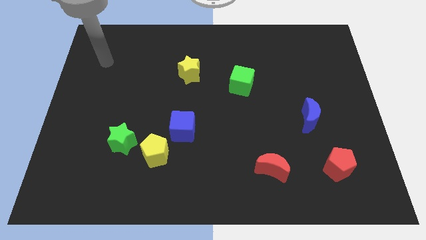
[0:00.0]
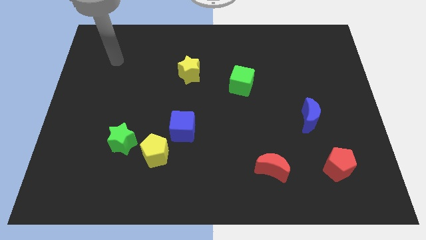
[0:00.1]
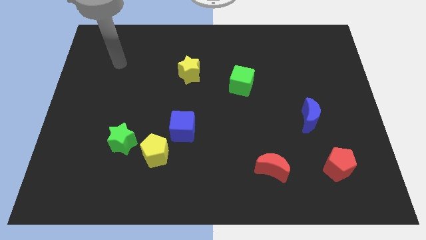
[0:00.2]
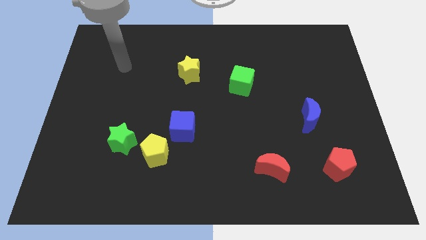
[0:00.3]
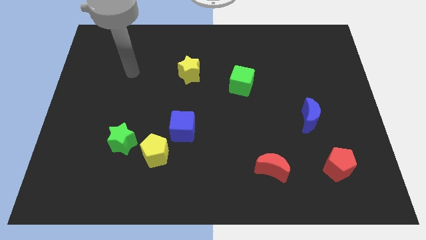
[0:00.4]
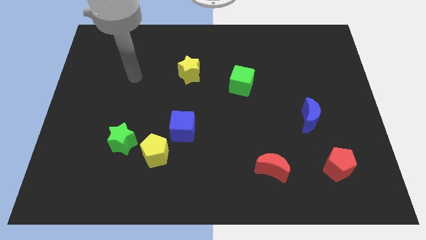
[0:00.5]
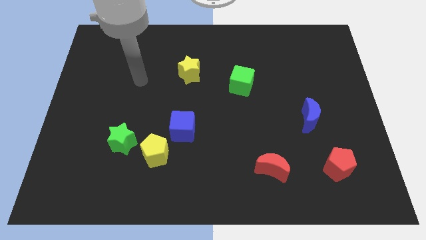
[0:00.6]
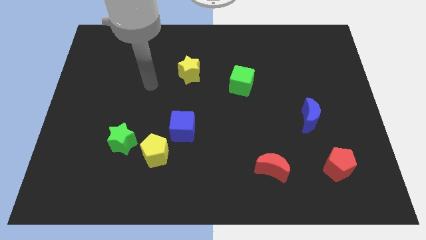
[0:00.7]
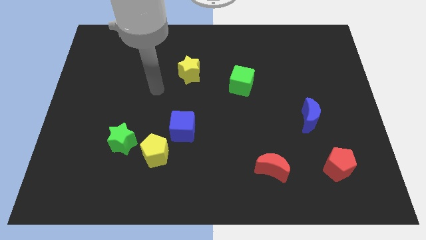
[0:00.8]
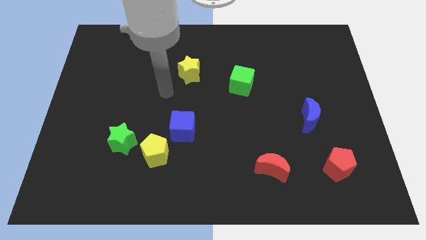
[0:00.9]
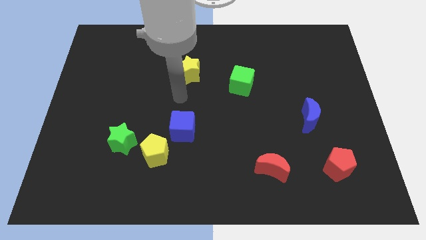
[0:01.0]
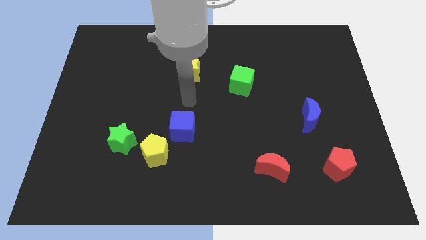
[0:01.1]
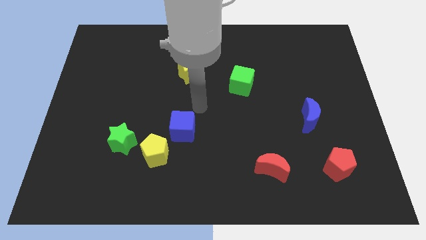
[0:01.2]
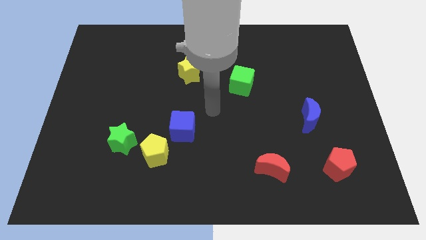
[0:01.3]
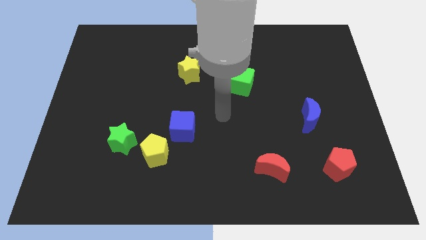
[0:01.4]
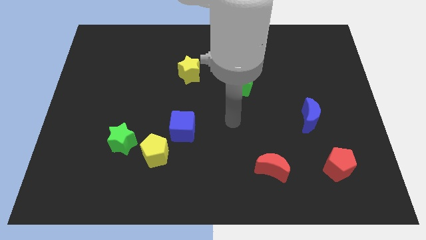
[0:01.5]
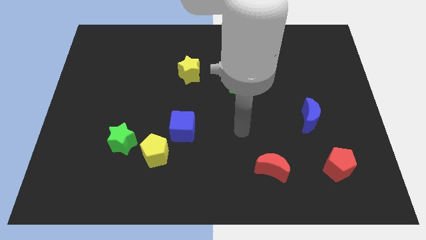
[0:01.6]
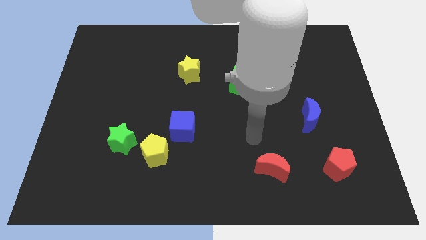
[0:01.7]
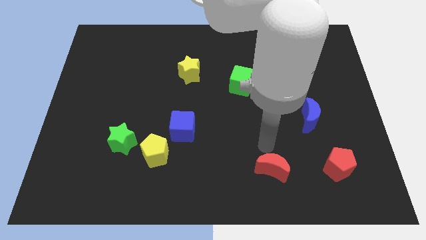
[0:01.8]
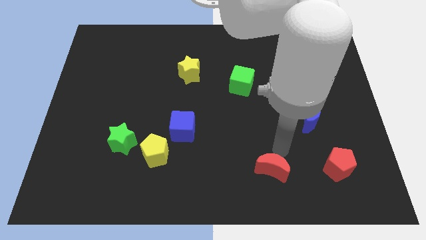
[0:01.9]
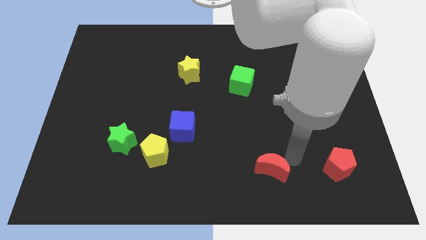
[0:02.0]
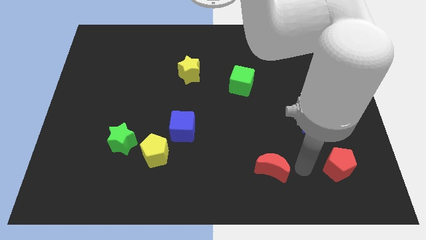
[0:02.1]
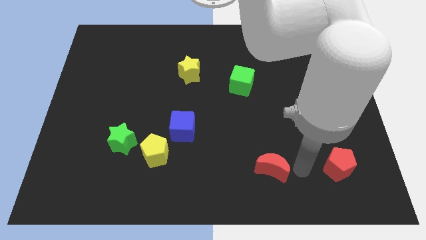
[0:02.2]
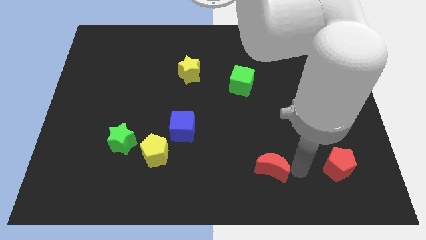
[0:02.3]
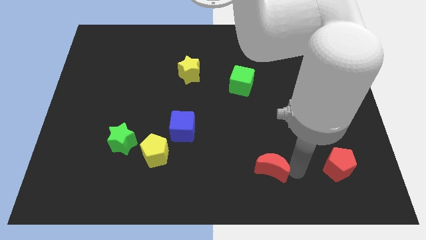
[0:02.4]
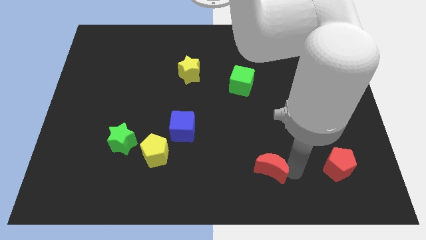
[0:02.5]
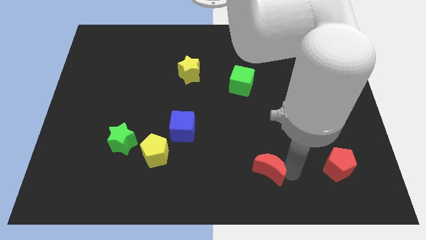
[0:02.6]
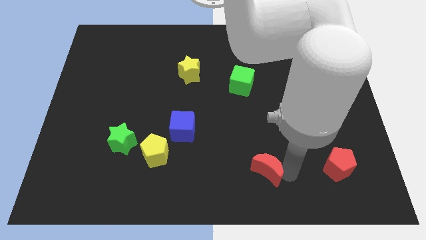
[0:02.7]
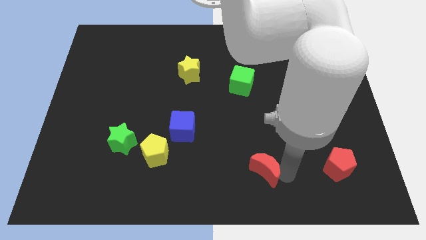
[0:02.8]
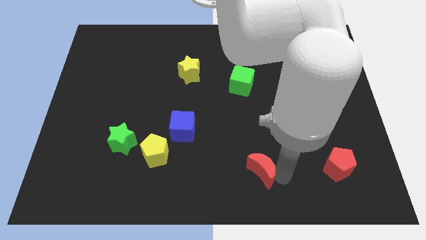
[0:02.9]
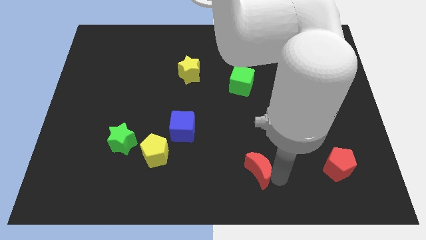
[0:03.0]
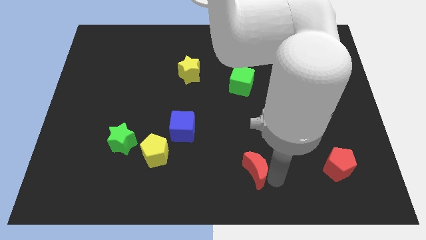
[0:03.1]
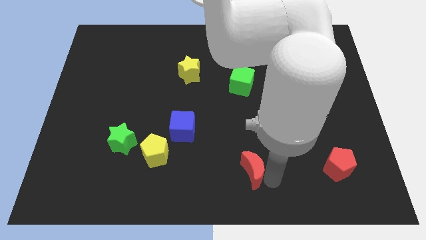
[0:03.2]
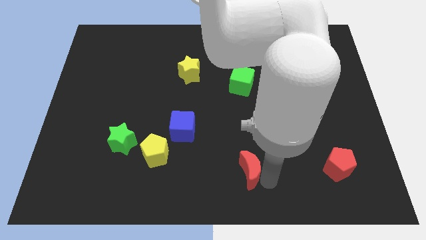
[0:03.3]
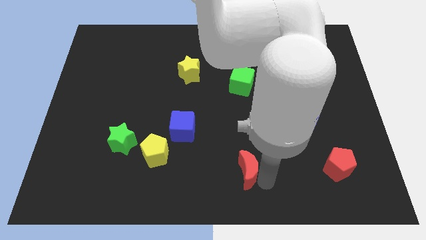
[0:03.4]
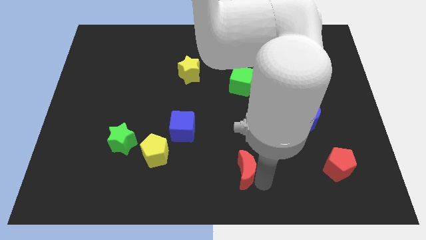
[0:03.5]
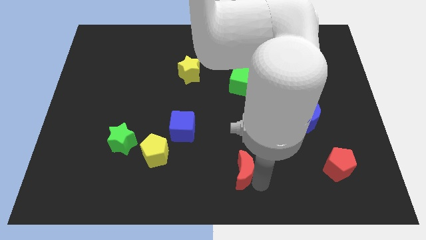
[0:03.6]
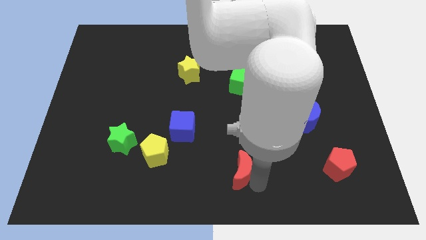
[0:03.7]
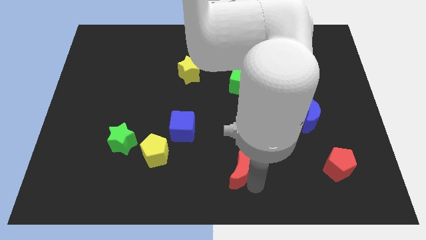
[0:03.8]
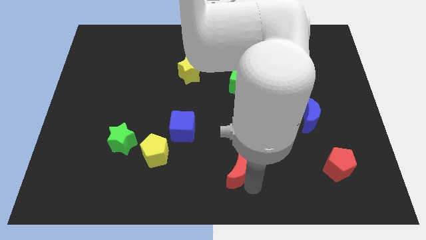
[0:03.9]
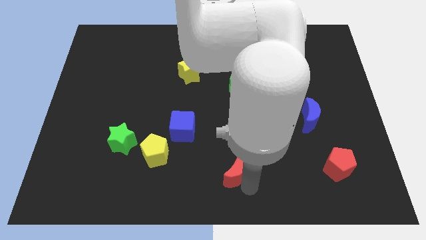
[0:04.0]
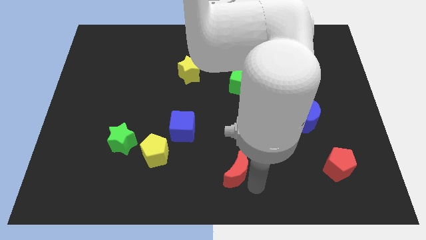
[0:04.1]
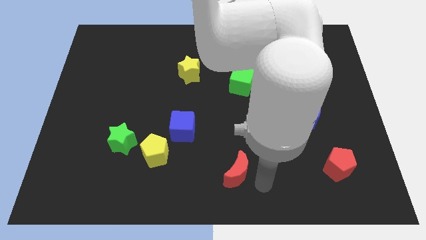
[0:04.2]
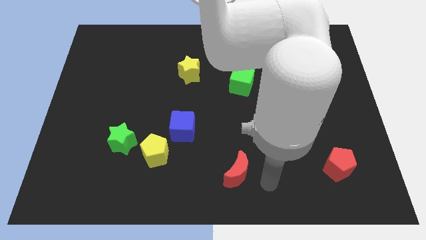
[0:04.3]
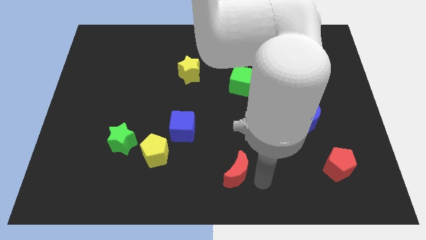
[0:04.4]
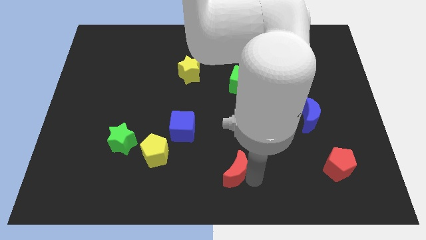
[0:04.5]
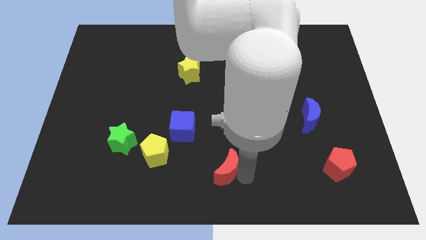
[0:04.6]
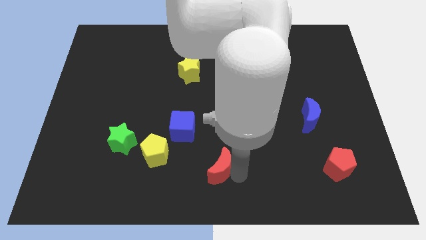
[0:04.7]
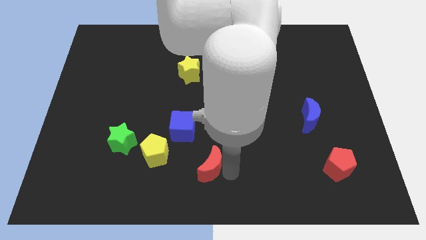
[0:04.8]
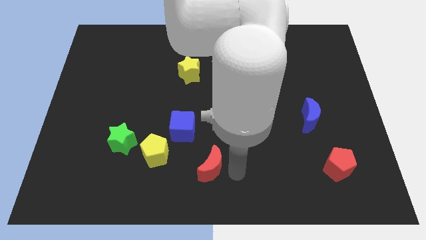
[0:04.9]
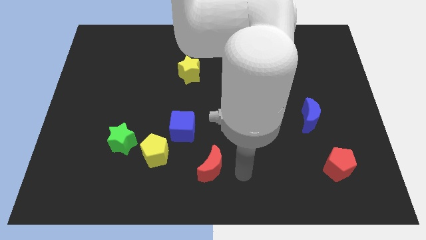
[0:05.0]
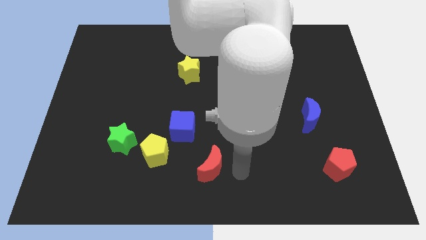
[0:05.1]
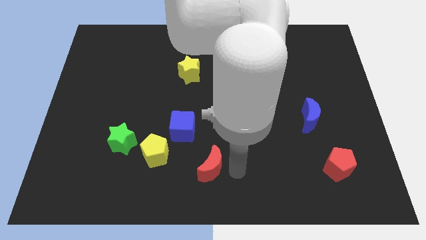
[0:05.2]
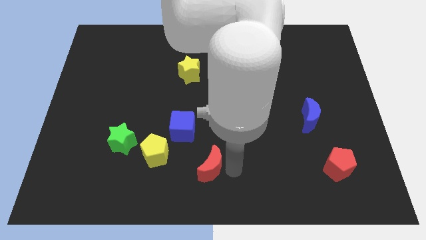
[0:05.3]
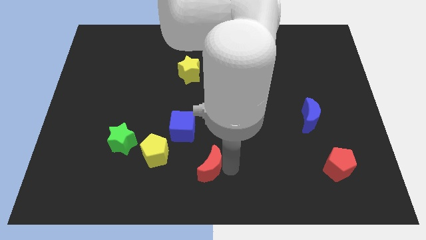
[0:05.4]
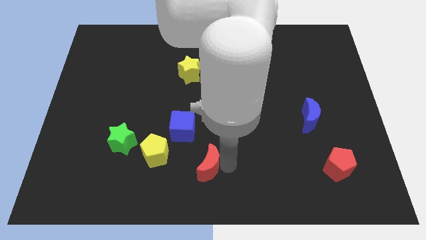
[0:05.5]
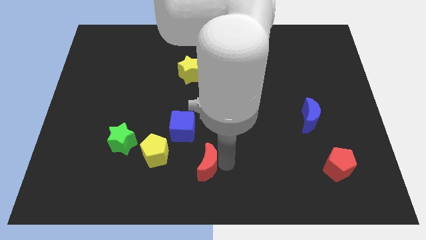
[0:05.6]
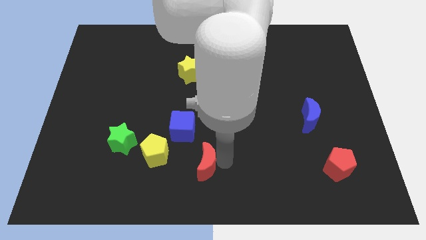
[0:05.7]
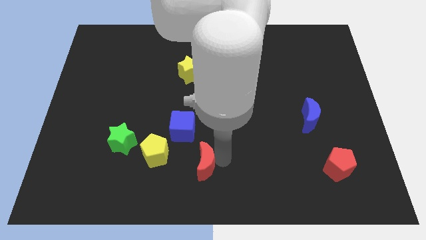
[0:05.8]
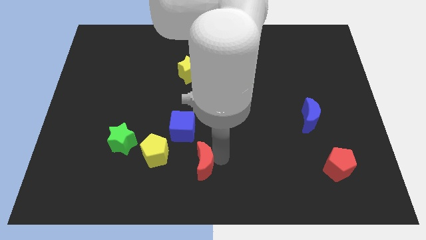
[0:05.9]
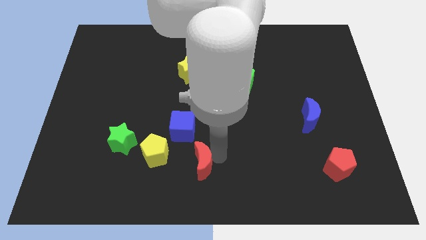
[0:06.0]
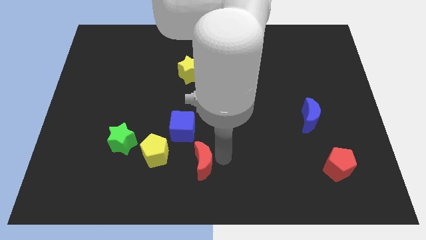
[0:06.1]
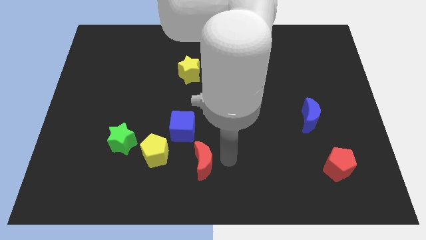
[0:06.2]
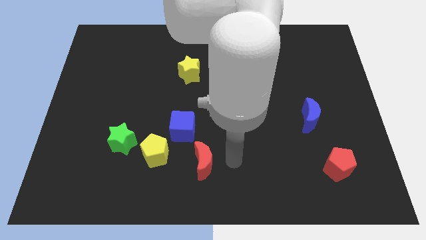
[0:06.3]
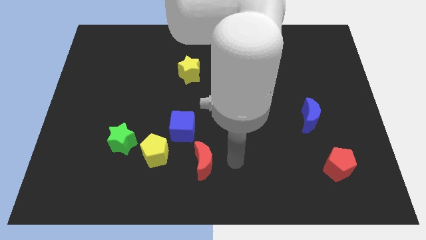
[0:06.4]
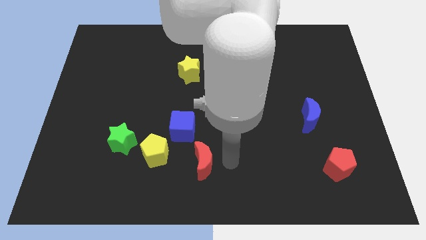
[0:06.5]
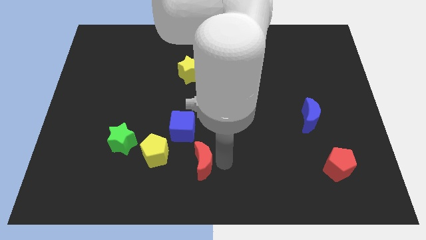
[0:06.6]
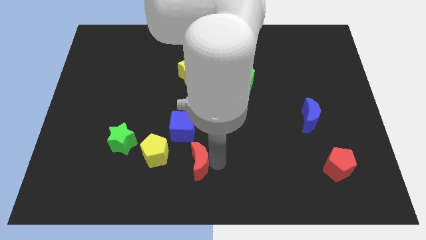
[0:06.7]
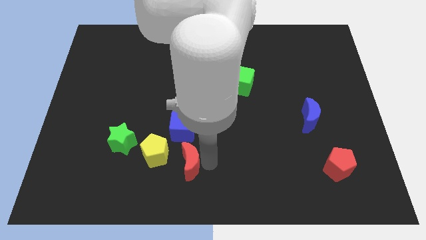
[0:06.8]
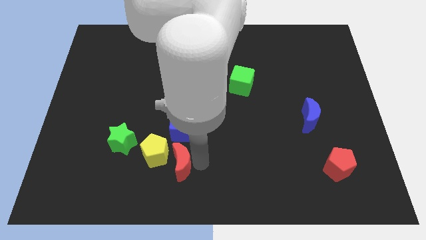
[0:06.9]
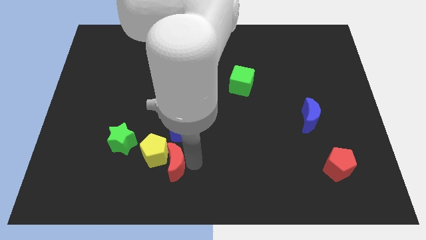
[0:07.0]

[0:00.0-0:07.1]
slide the red moon left

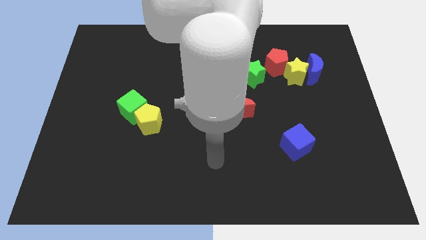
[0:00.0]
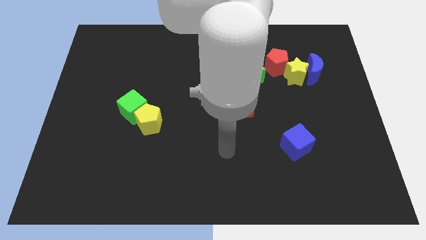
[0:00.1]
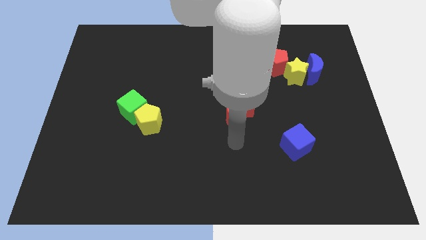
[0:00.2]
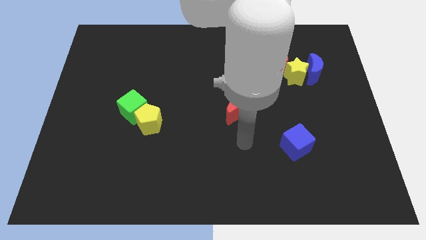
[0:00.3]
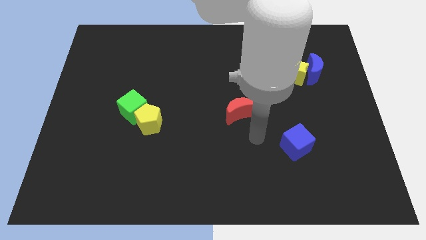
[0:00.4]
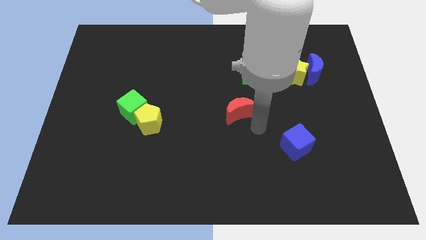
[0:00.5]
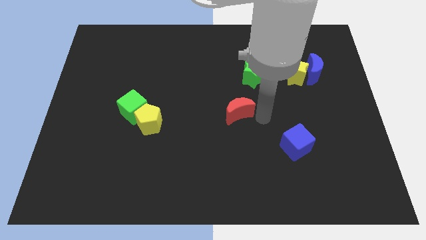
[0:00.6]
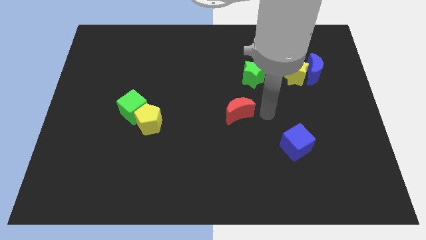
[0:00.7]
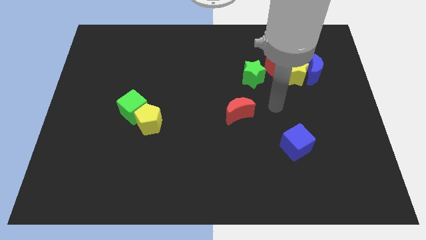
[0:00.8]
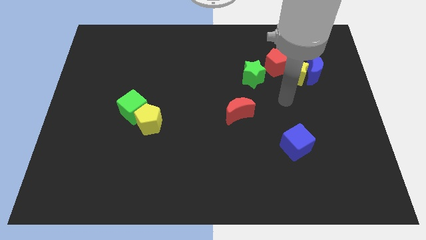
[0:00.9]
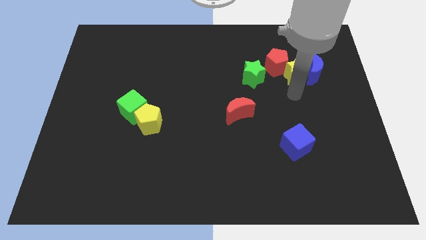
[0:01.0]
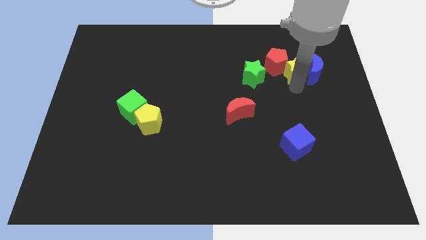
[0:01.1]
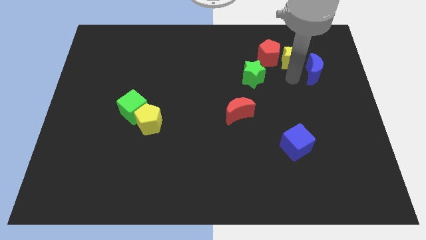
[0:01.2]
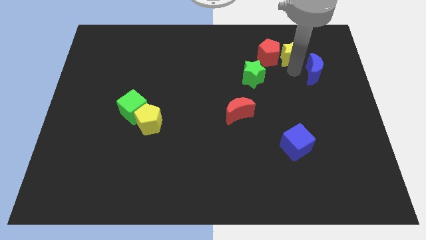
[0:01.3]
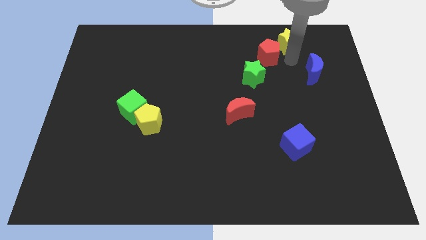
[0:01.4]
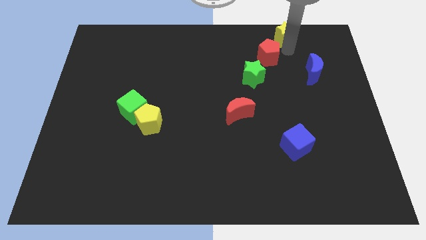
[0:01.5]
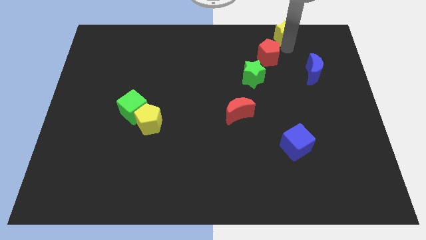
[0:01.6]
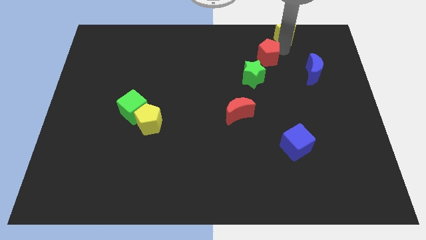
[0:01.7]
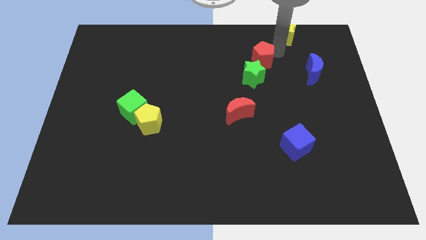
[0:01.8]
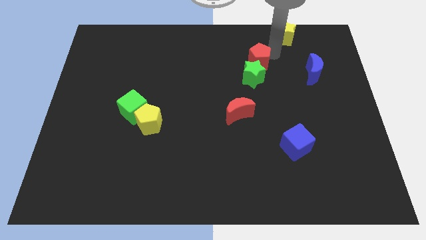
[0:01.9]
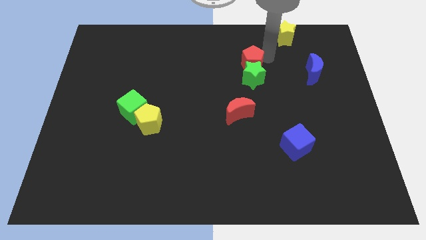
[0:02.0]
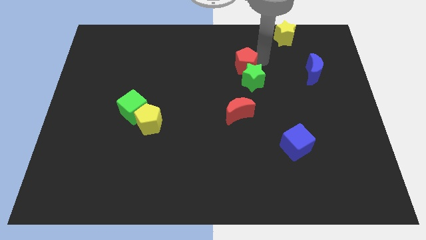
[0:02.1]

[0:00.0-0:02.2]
push the red pentagon a bit to the left
